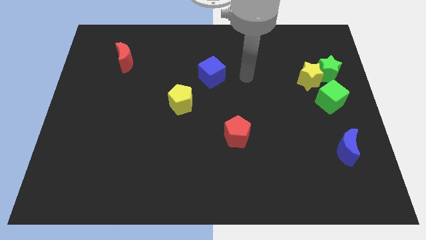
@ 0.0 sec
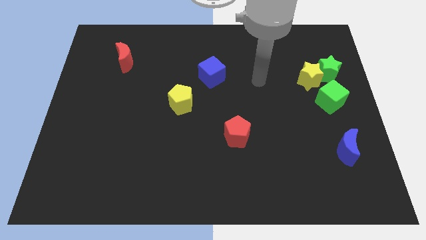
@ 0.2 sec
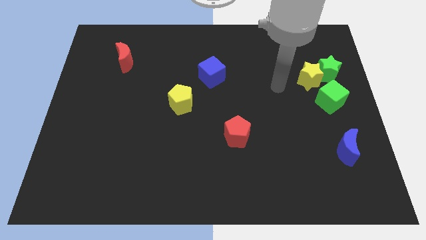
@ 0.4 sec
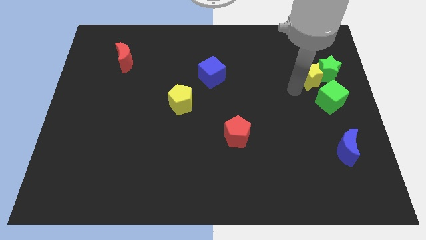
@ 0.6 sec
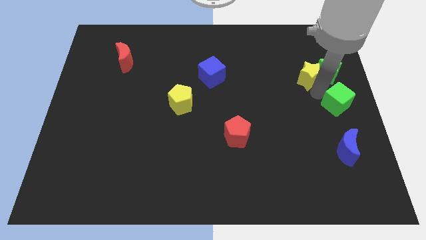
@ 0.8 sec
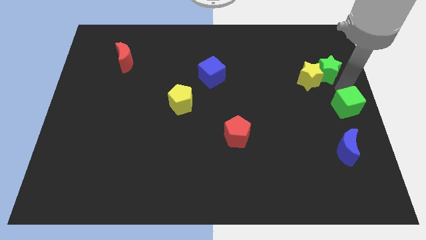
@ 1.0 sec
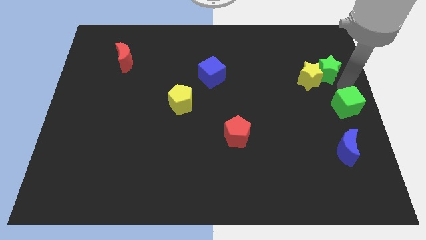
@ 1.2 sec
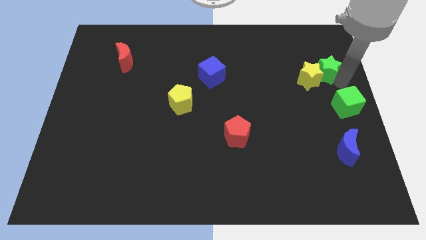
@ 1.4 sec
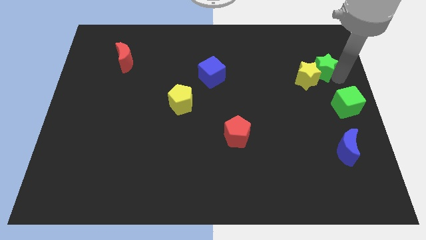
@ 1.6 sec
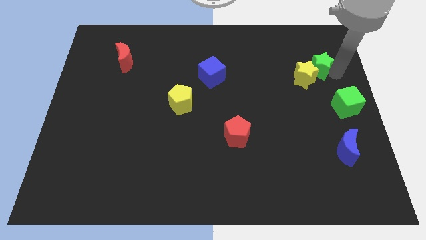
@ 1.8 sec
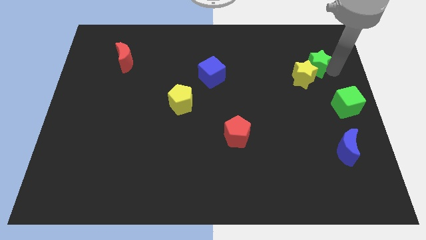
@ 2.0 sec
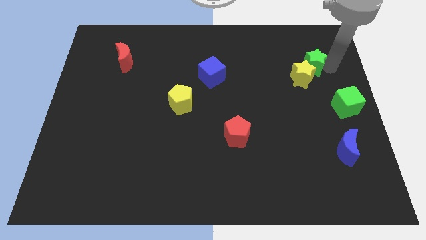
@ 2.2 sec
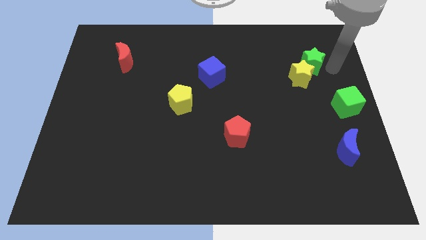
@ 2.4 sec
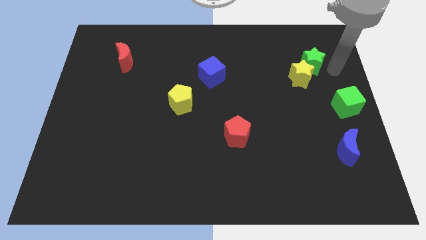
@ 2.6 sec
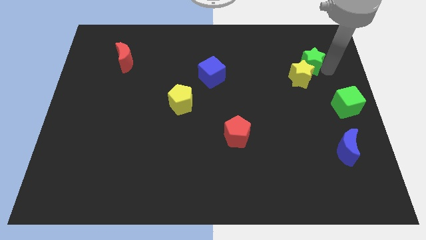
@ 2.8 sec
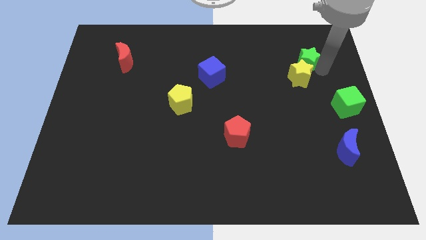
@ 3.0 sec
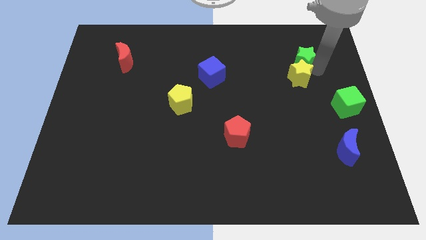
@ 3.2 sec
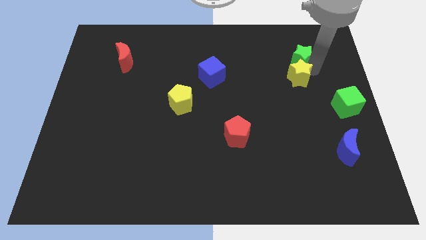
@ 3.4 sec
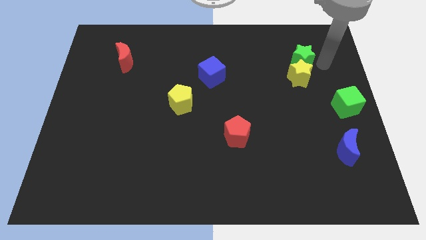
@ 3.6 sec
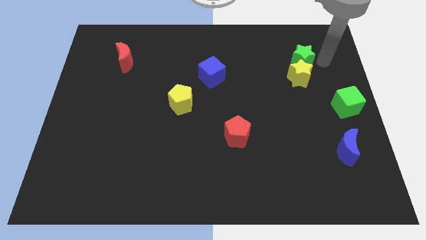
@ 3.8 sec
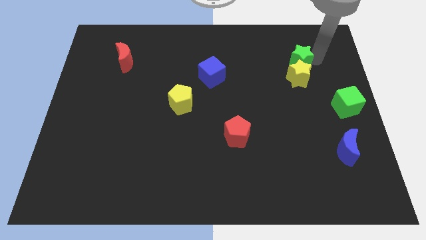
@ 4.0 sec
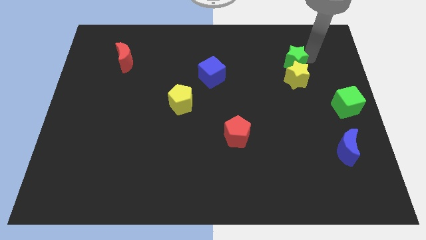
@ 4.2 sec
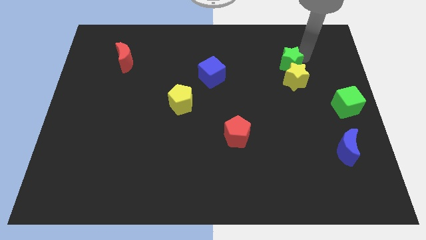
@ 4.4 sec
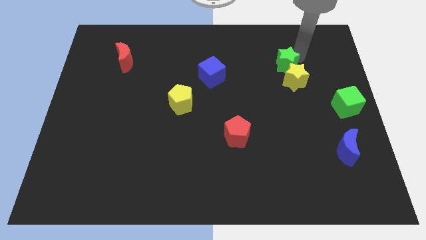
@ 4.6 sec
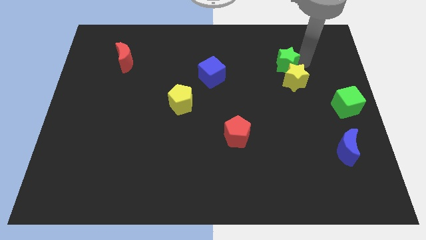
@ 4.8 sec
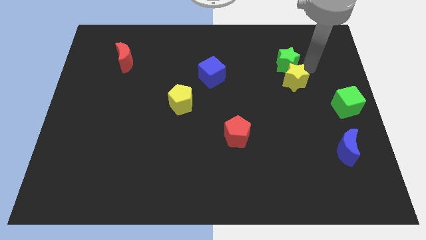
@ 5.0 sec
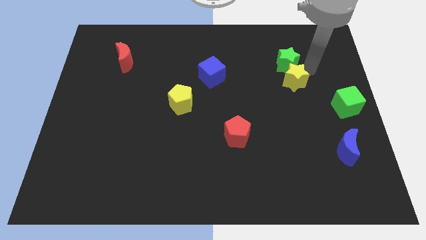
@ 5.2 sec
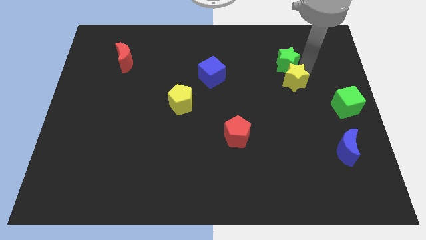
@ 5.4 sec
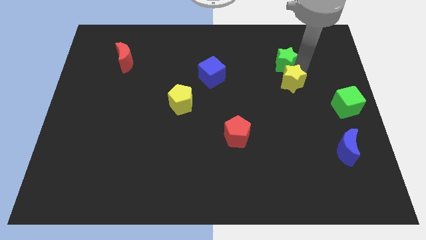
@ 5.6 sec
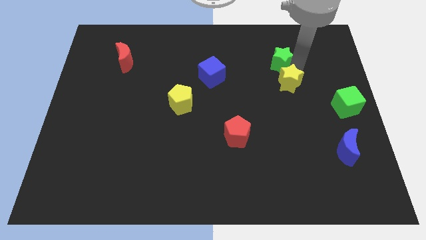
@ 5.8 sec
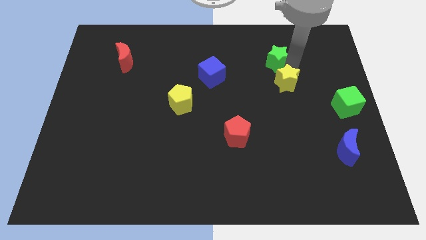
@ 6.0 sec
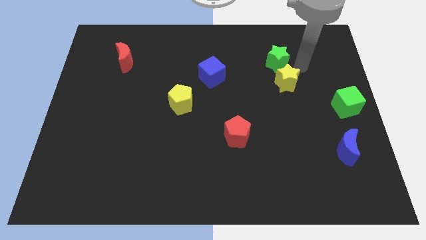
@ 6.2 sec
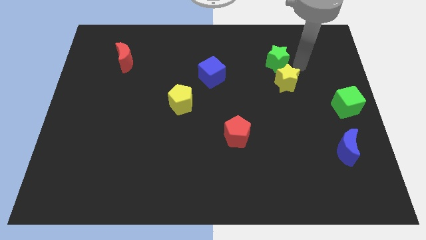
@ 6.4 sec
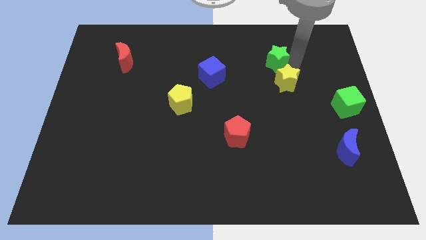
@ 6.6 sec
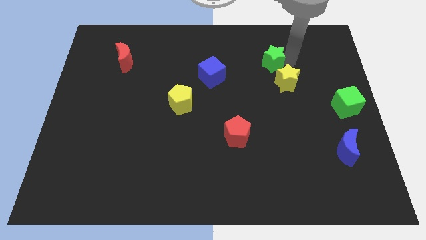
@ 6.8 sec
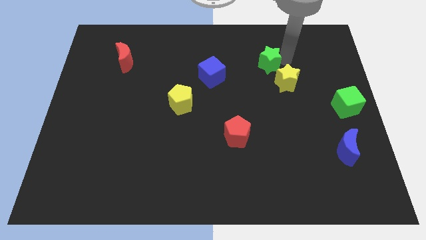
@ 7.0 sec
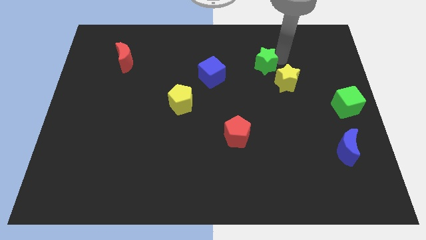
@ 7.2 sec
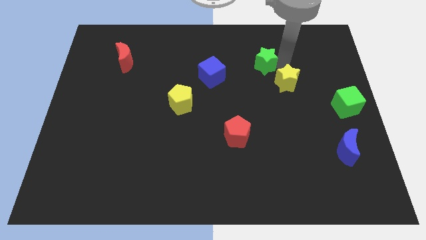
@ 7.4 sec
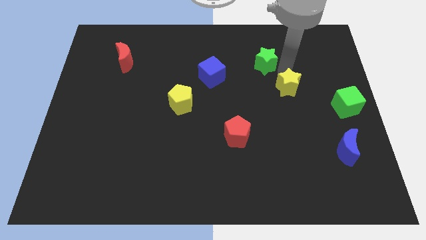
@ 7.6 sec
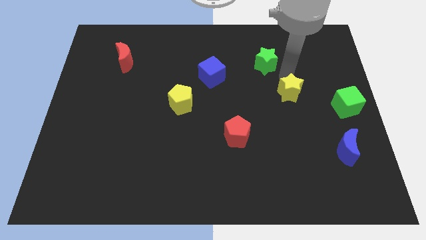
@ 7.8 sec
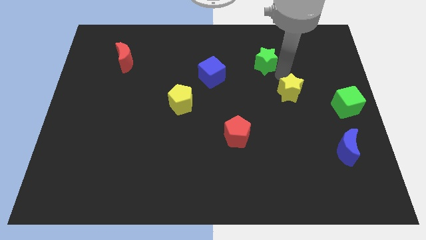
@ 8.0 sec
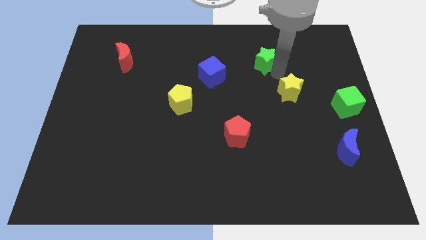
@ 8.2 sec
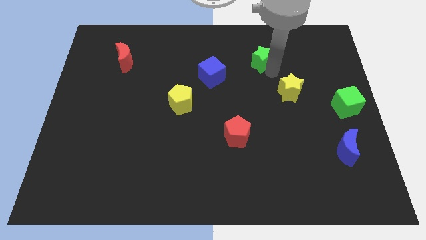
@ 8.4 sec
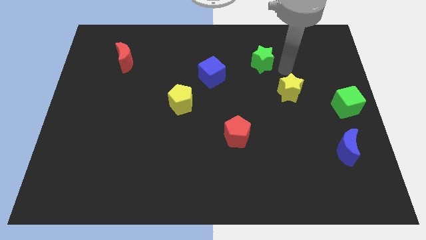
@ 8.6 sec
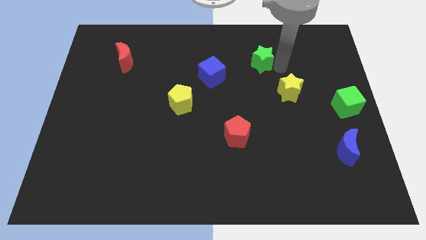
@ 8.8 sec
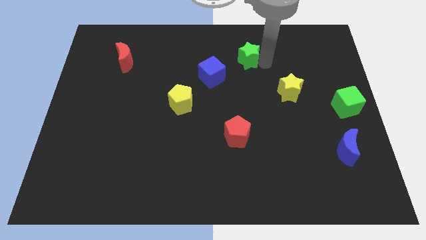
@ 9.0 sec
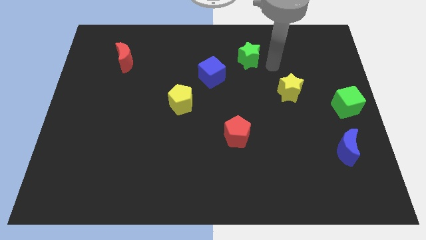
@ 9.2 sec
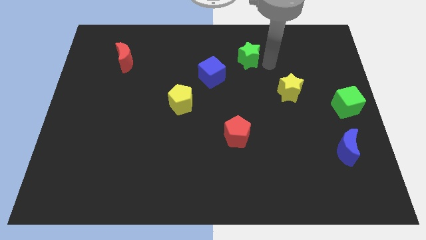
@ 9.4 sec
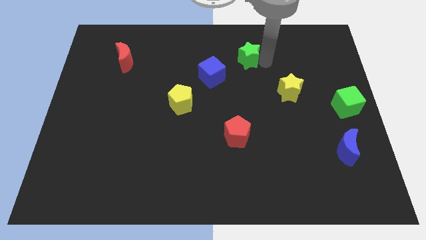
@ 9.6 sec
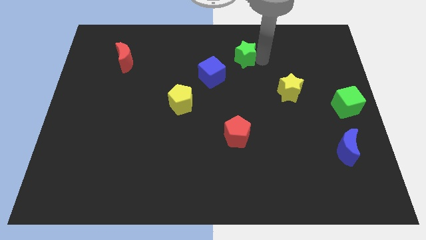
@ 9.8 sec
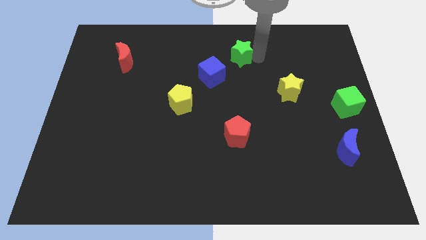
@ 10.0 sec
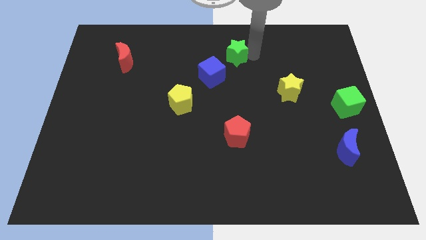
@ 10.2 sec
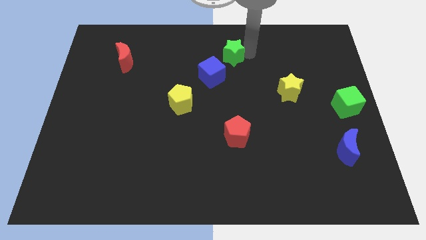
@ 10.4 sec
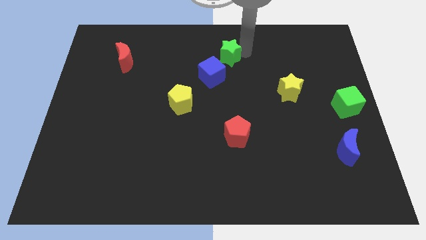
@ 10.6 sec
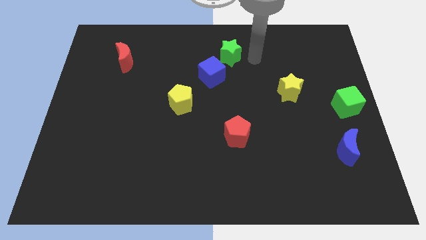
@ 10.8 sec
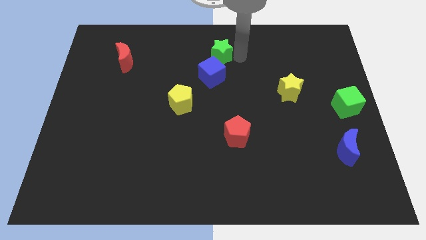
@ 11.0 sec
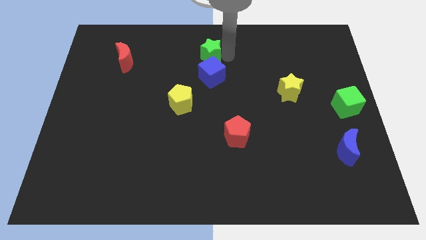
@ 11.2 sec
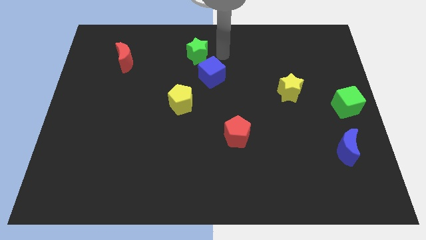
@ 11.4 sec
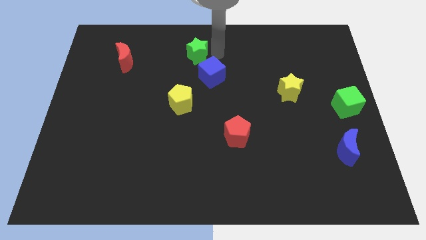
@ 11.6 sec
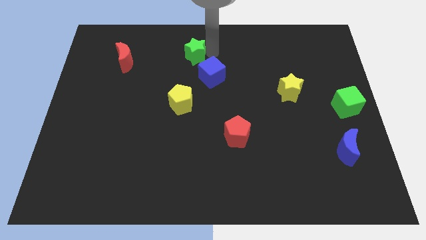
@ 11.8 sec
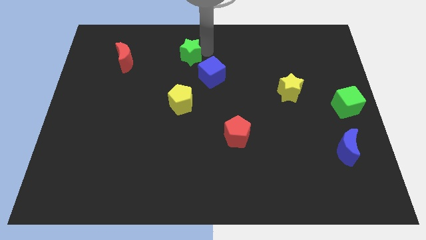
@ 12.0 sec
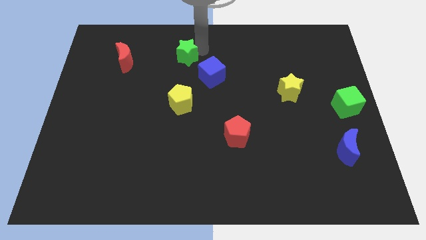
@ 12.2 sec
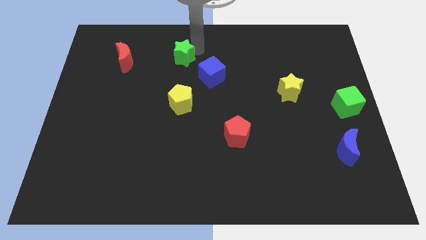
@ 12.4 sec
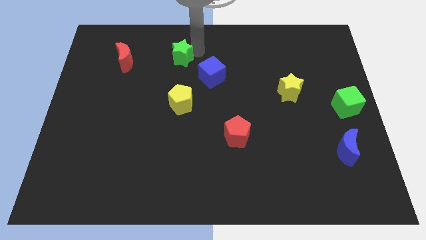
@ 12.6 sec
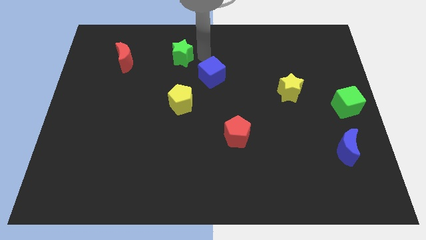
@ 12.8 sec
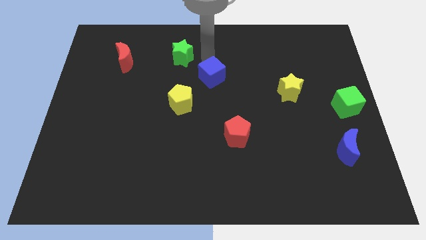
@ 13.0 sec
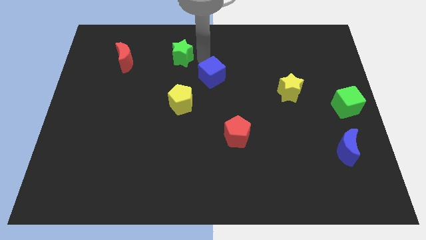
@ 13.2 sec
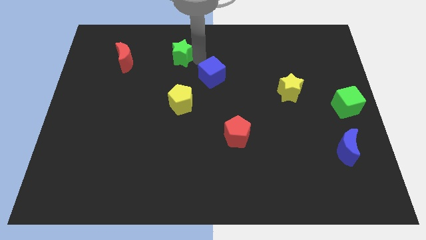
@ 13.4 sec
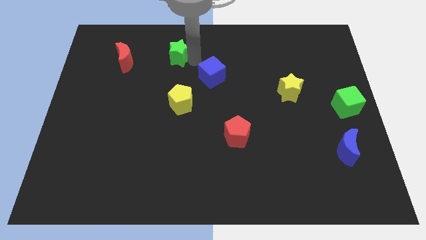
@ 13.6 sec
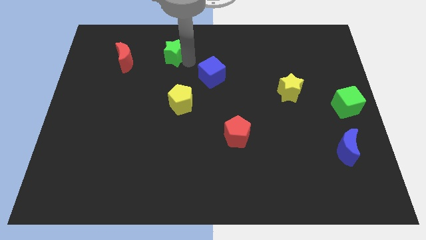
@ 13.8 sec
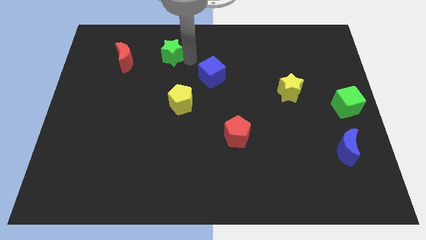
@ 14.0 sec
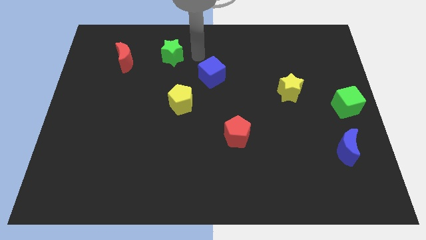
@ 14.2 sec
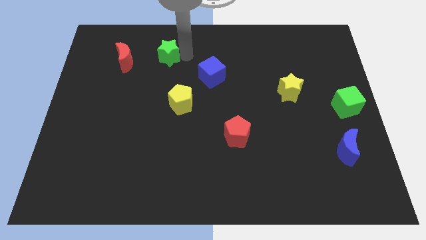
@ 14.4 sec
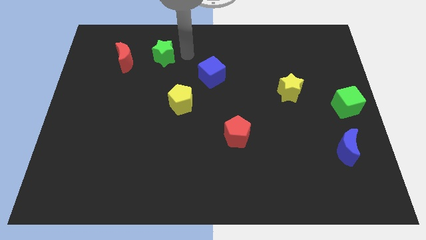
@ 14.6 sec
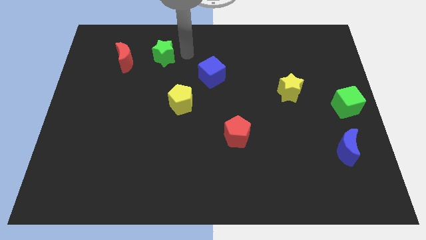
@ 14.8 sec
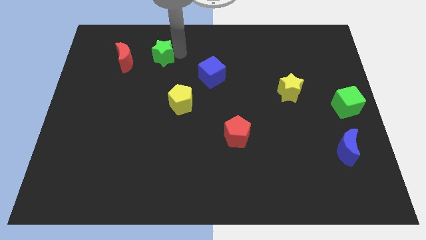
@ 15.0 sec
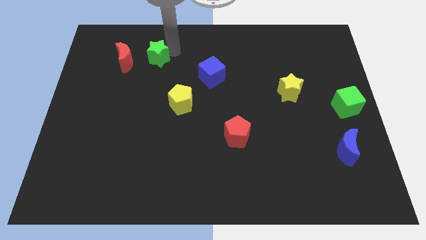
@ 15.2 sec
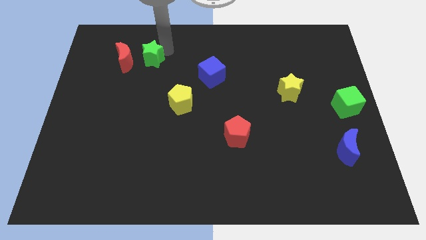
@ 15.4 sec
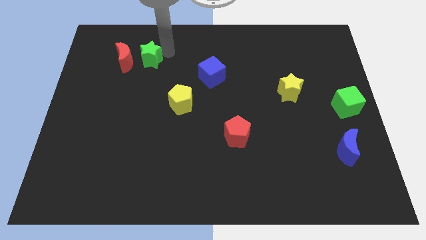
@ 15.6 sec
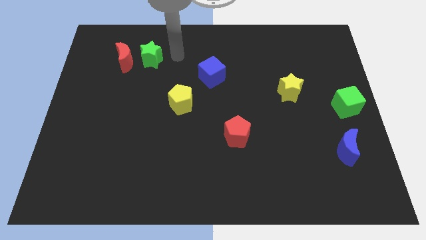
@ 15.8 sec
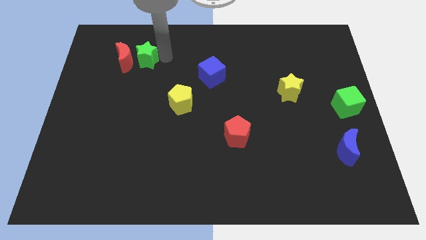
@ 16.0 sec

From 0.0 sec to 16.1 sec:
move the green star to the red moon
